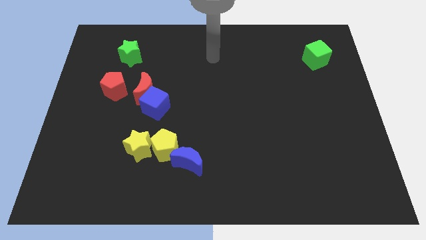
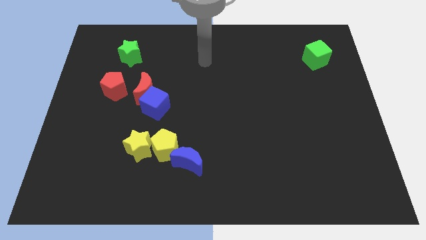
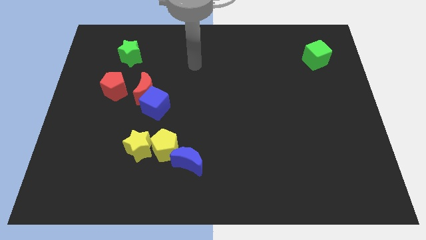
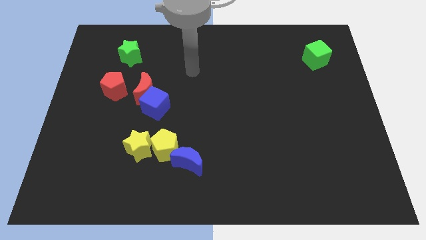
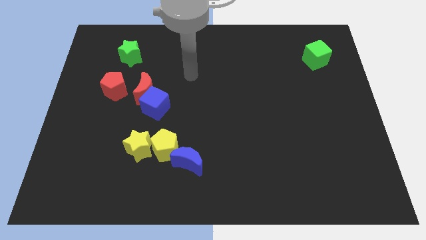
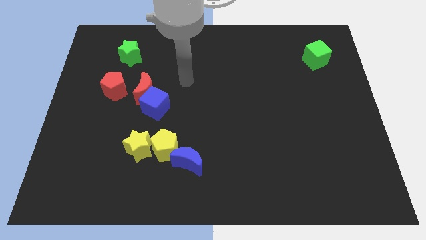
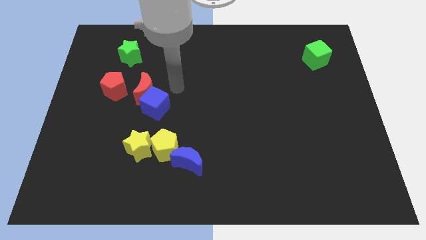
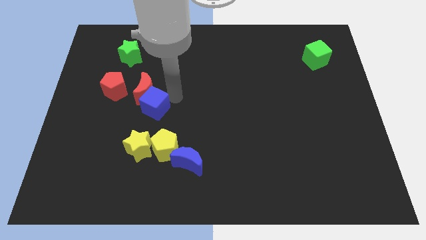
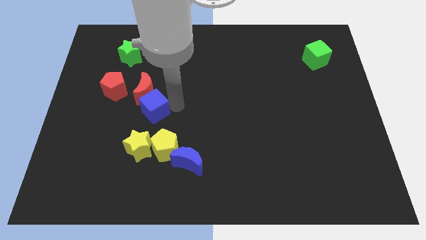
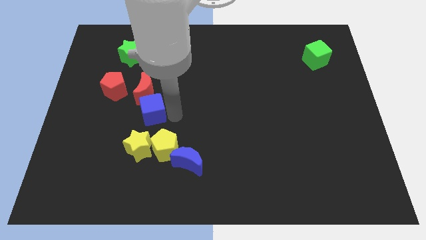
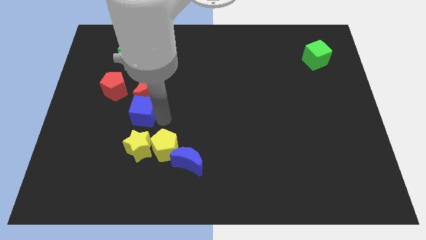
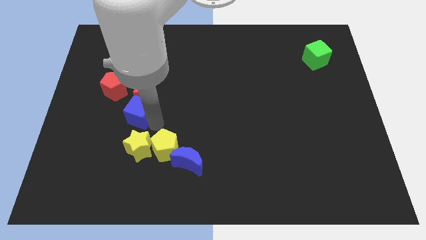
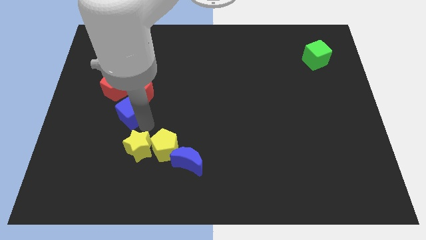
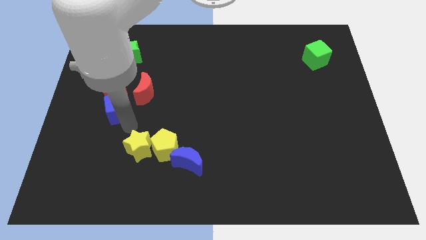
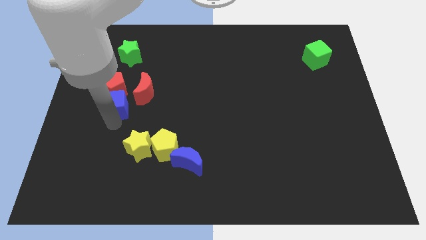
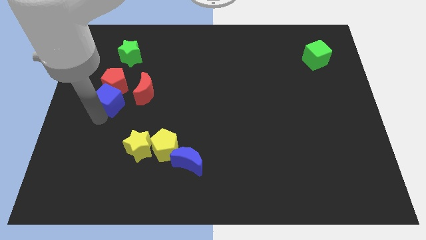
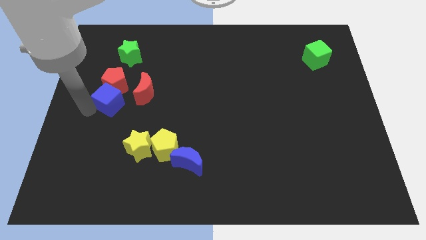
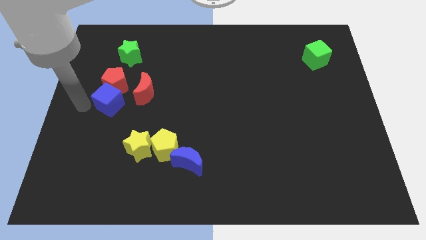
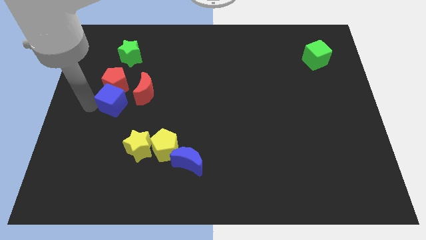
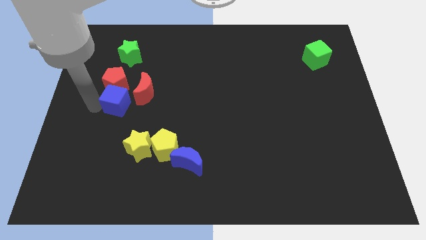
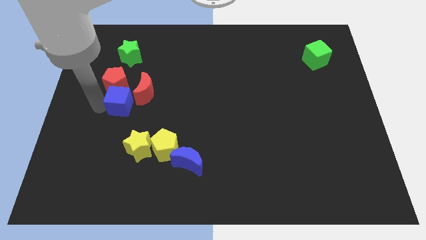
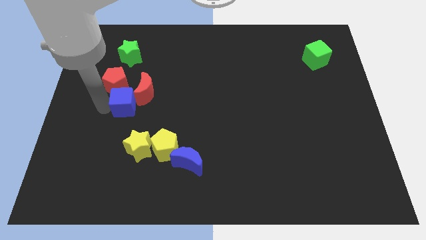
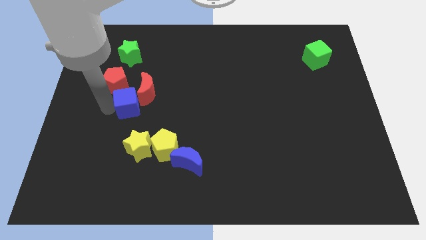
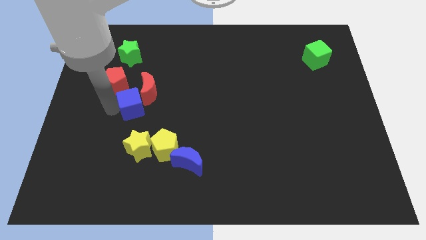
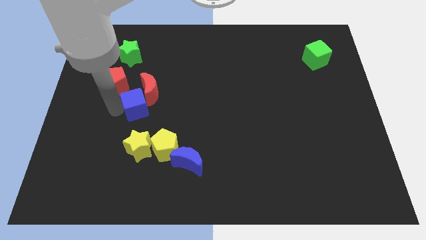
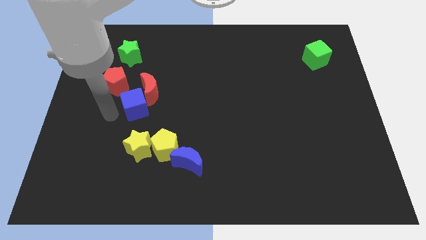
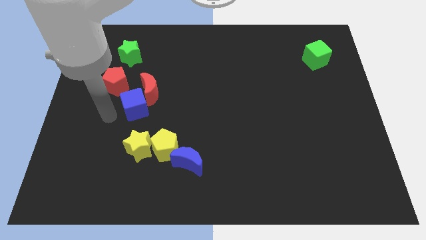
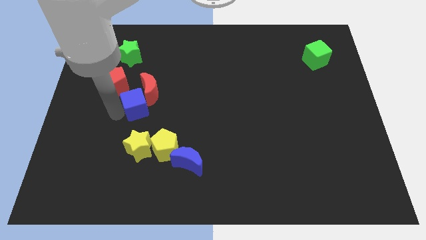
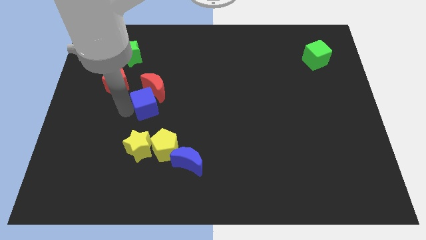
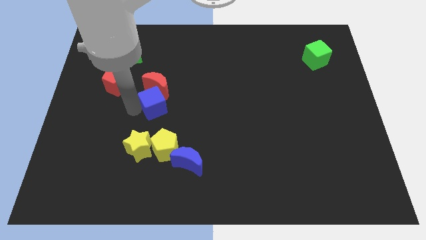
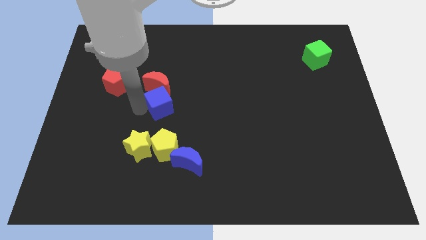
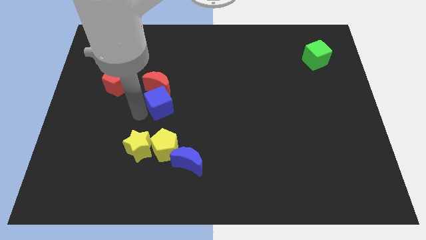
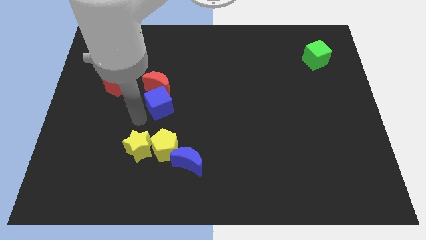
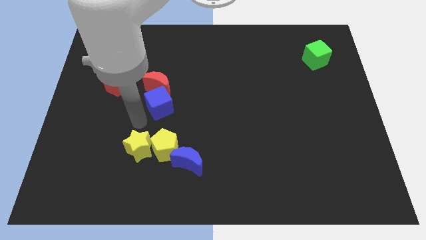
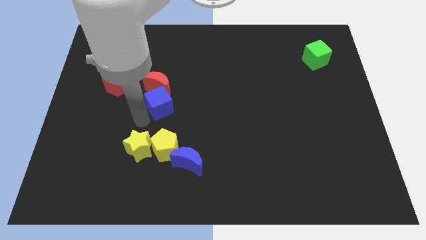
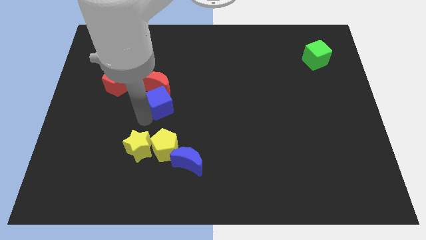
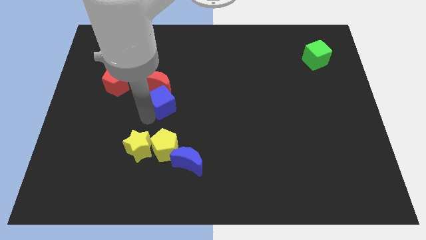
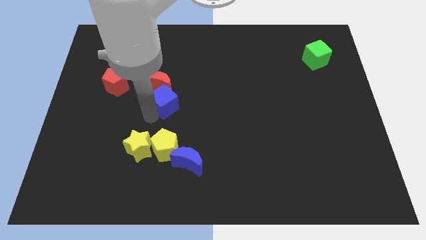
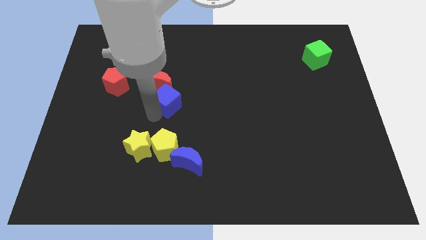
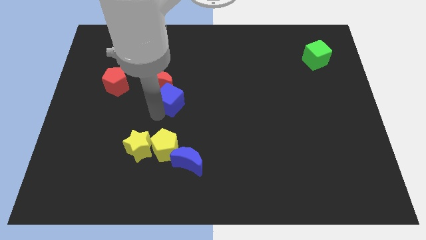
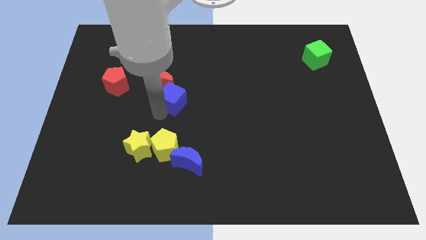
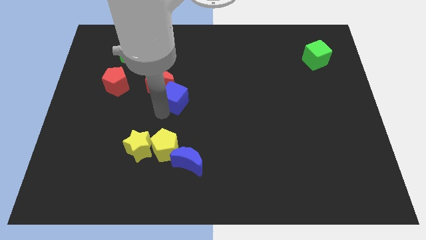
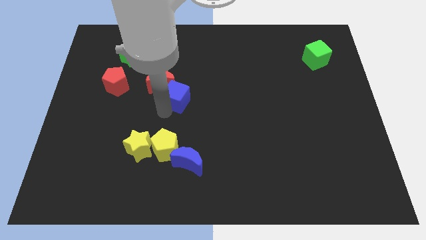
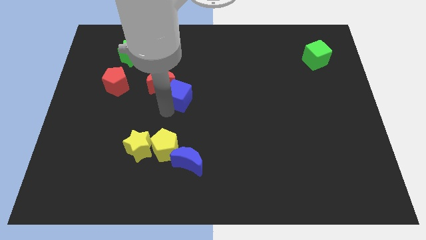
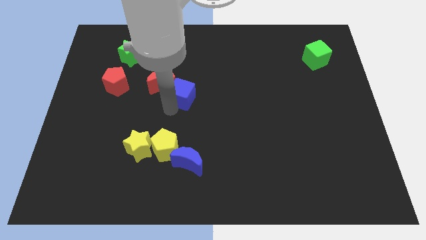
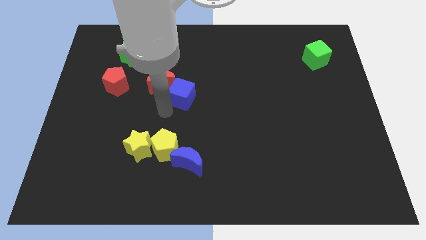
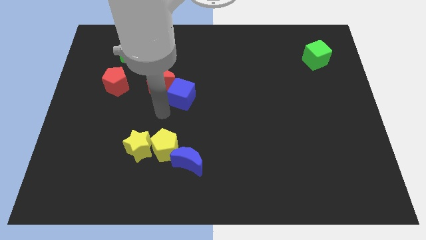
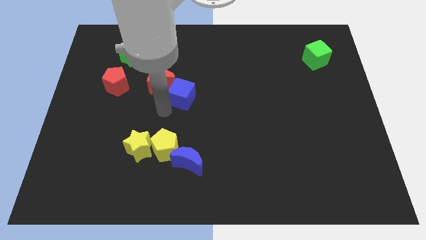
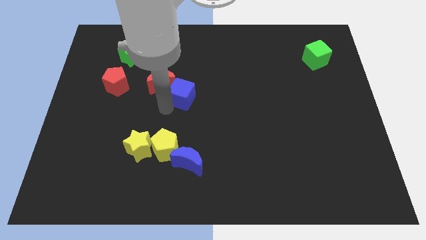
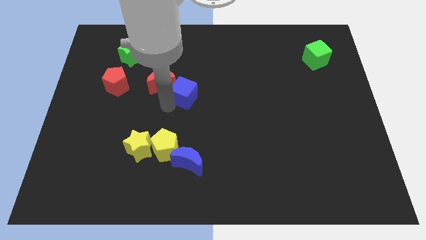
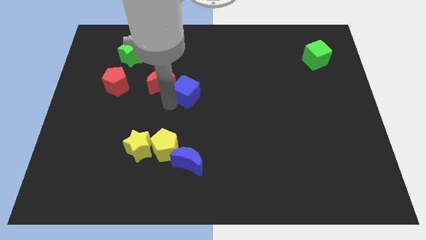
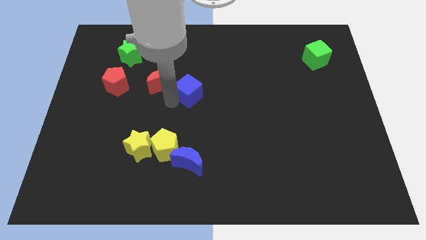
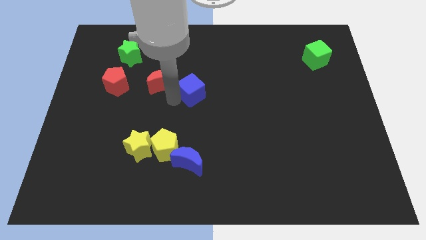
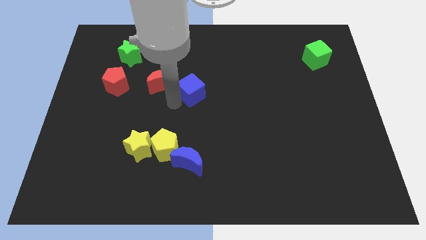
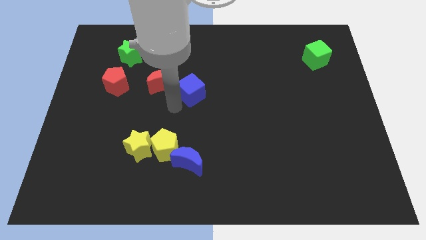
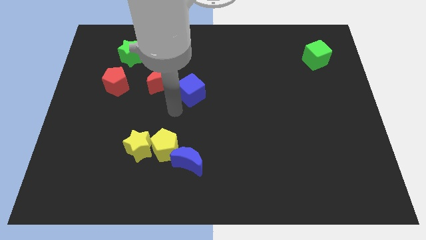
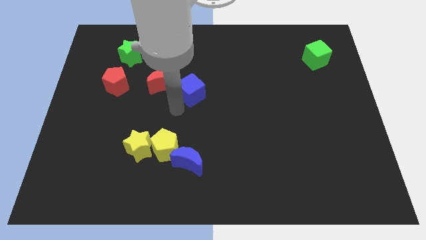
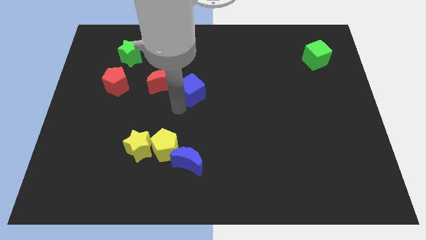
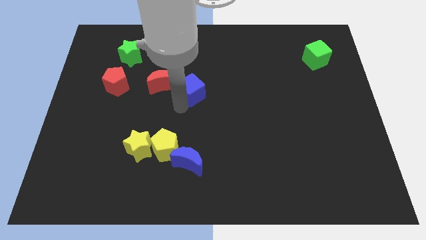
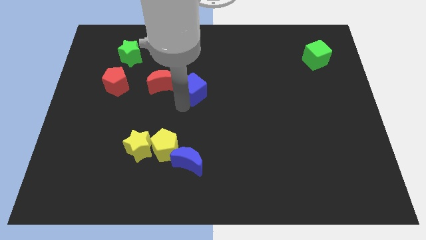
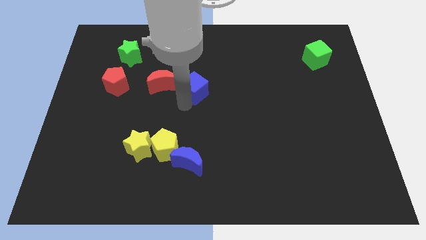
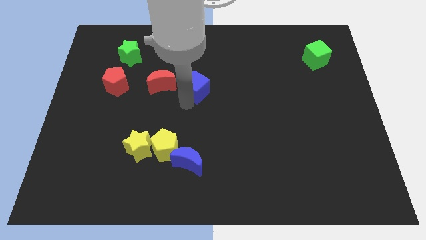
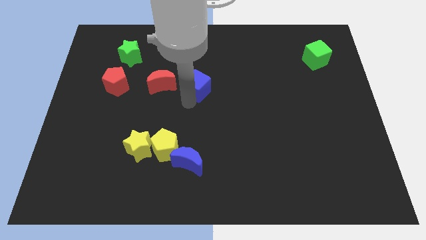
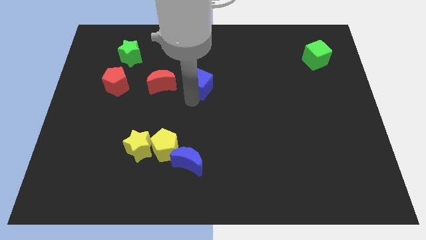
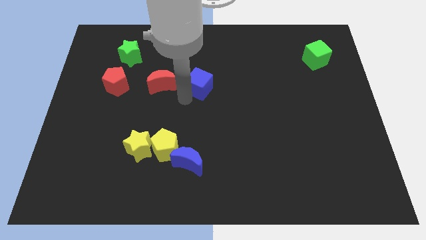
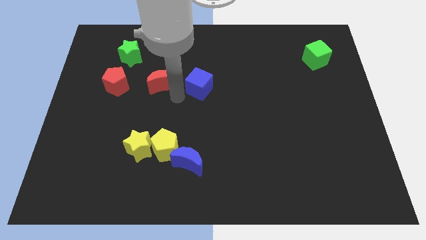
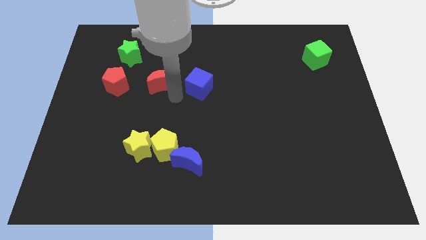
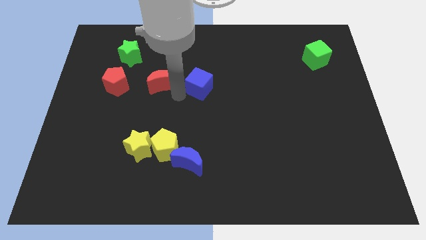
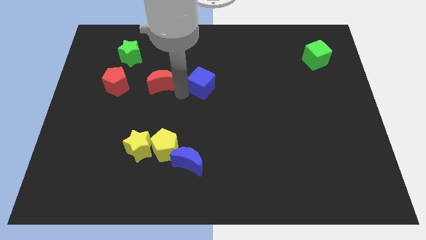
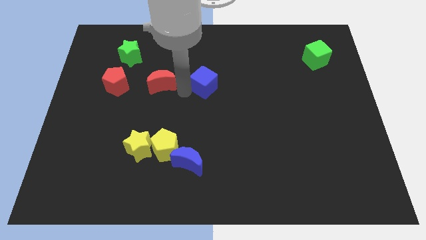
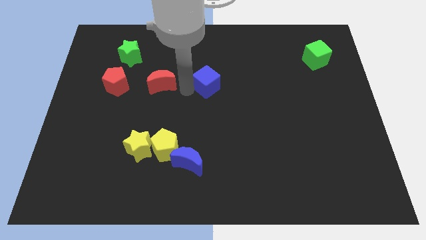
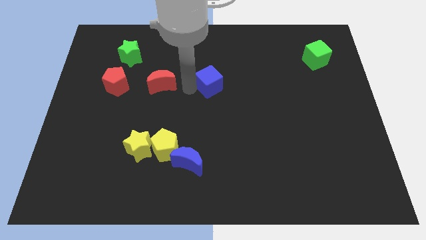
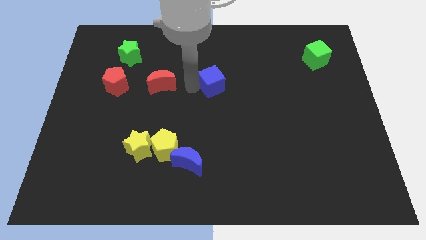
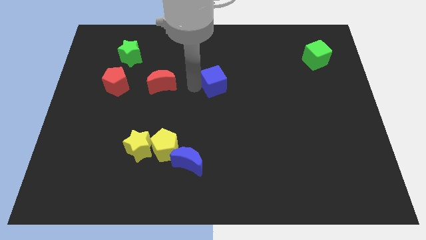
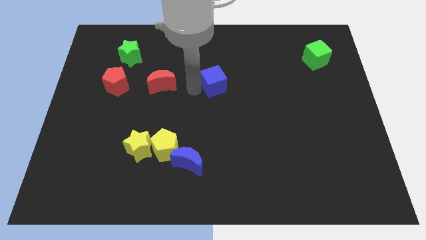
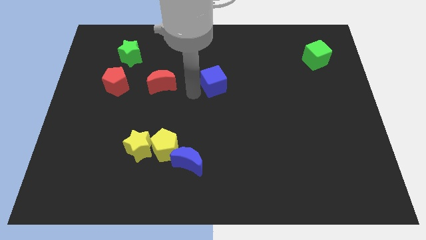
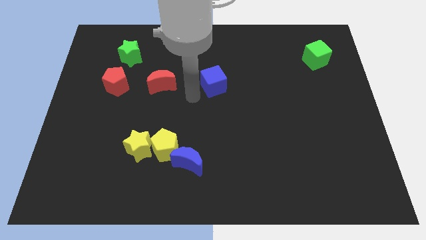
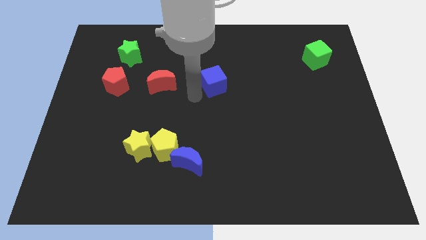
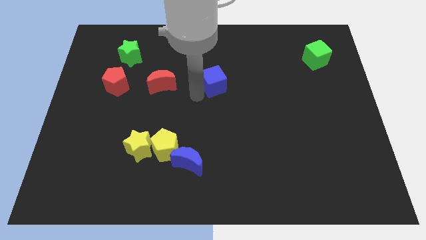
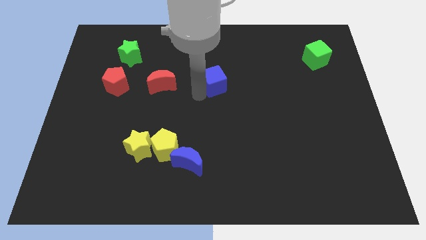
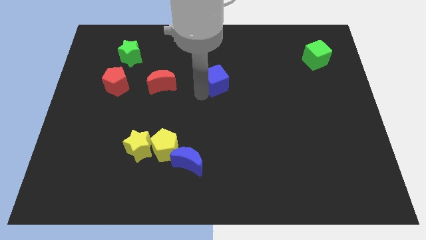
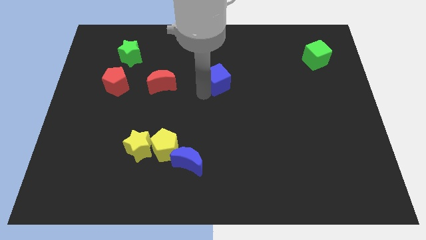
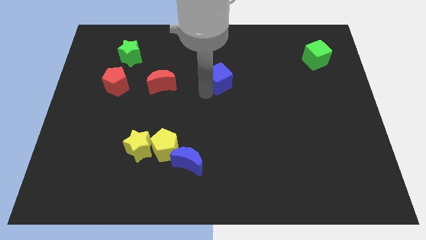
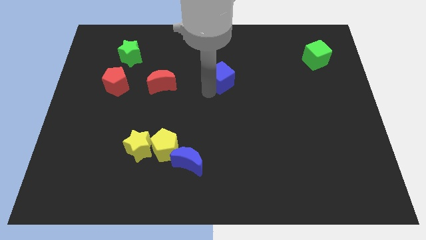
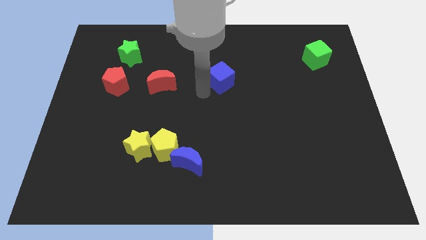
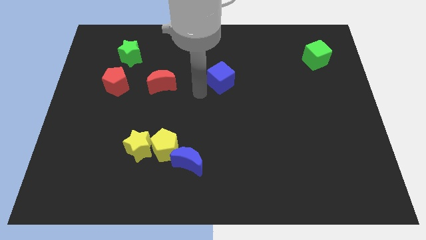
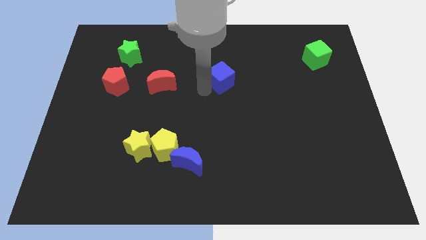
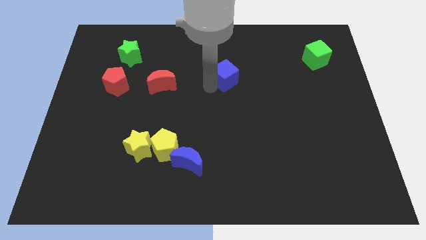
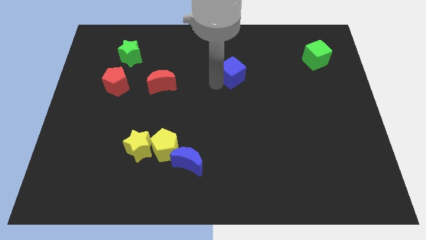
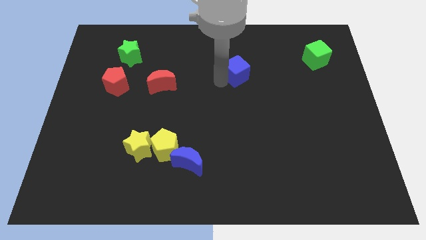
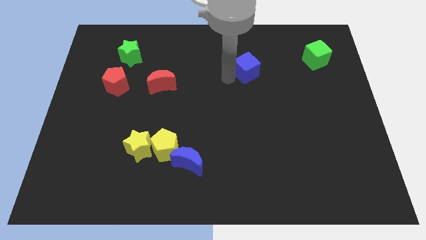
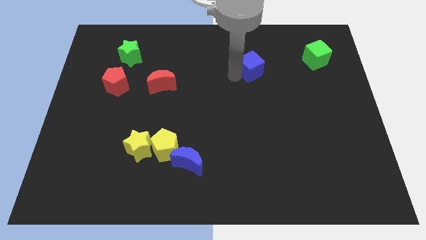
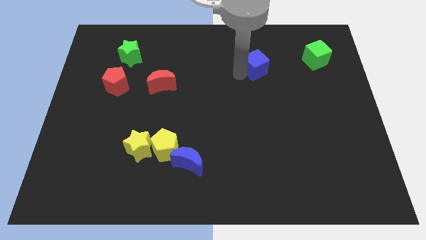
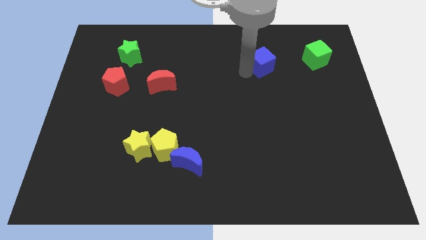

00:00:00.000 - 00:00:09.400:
push the blue cube left of the green cube
